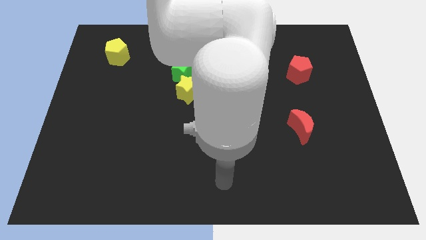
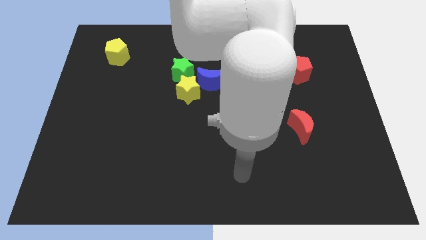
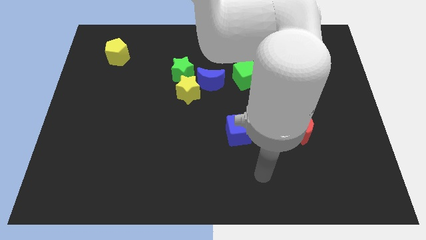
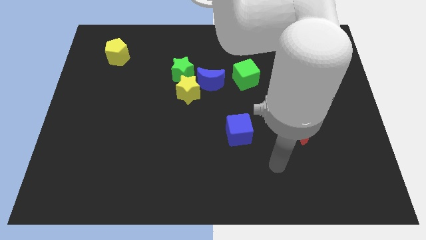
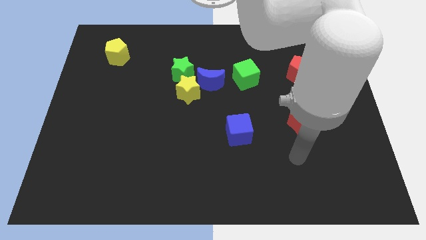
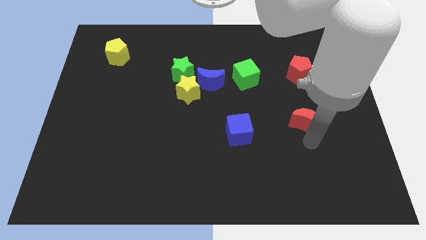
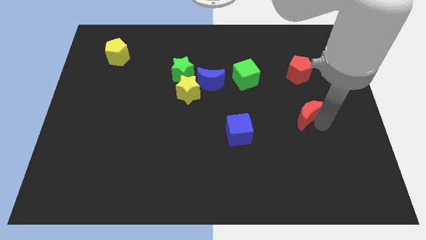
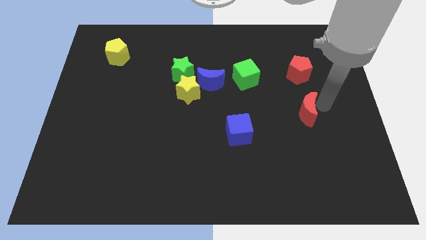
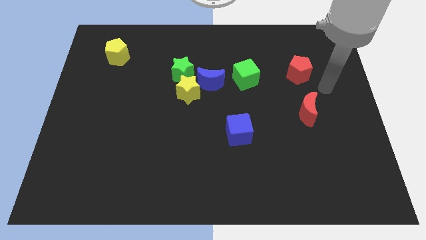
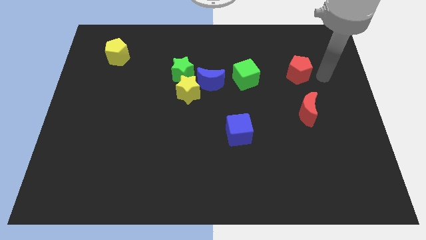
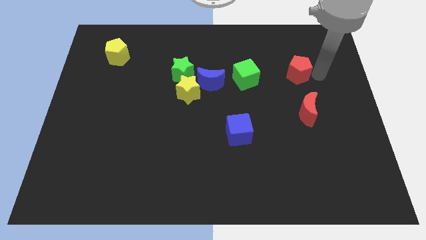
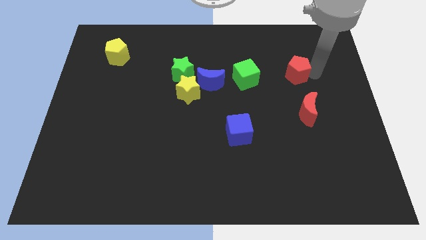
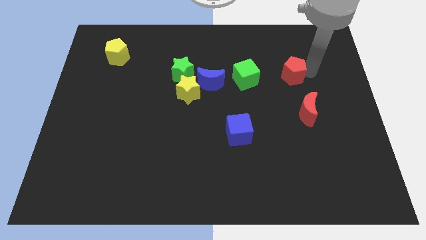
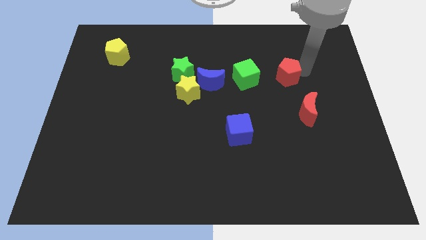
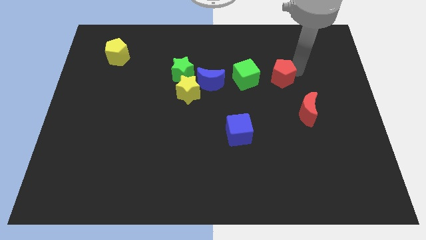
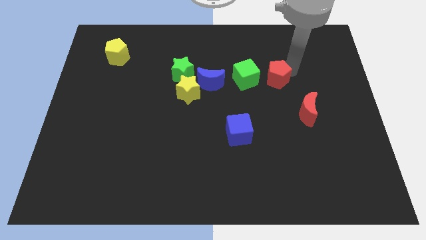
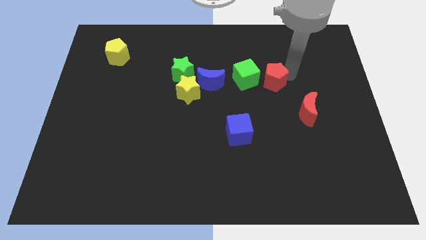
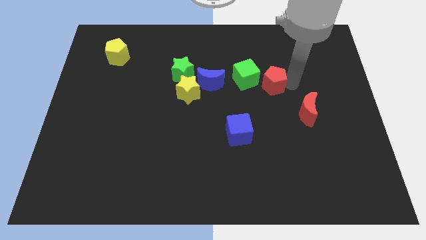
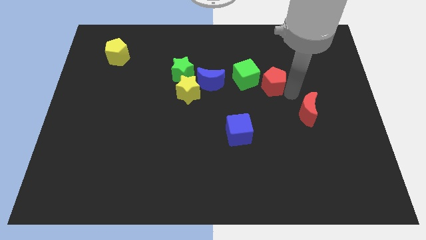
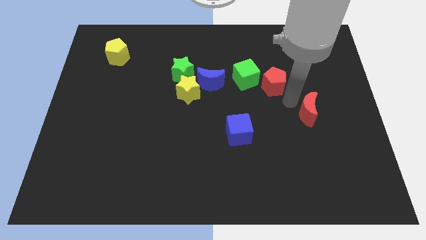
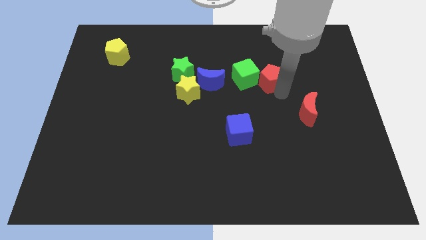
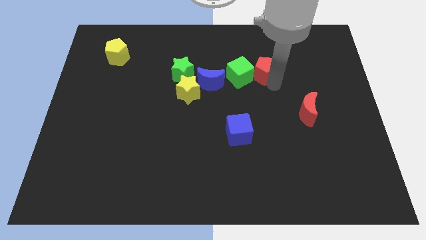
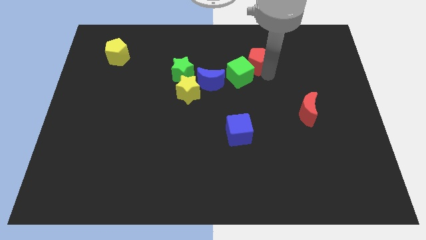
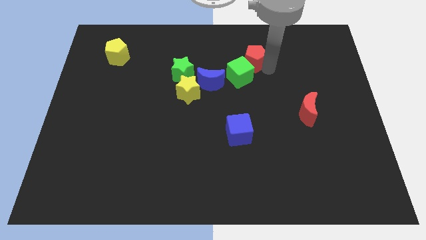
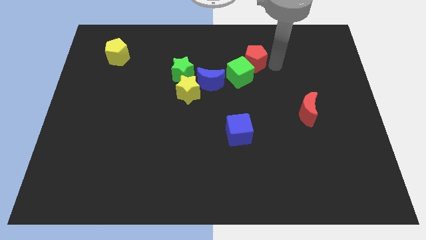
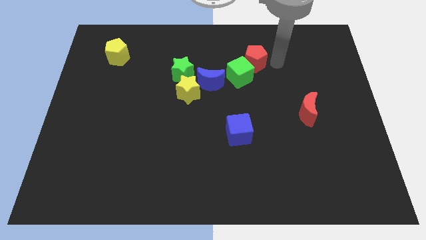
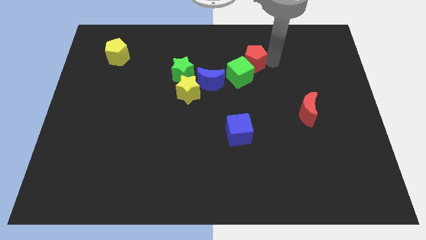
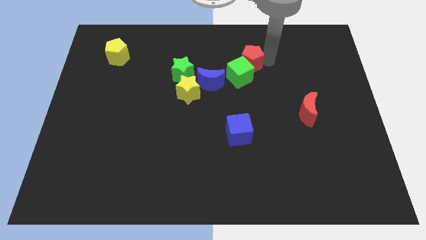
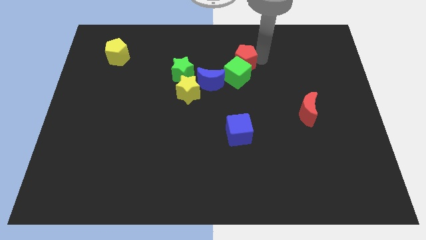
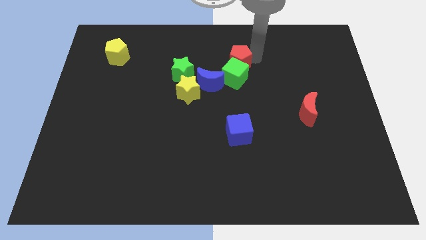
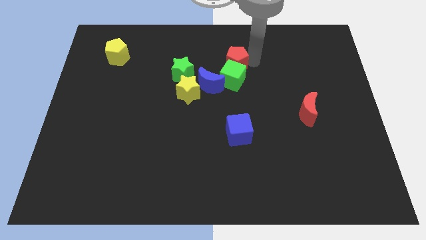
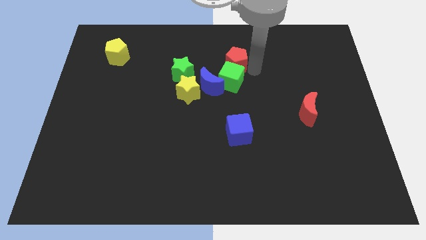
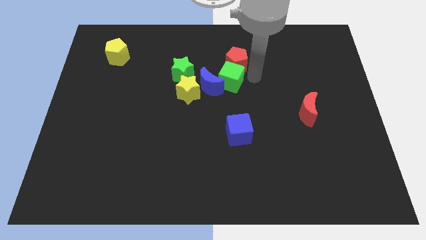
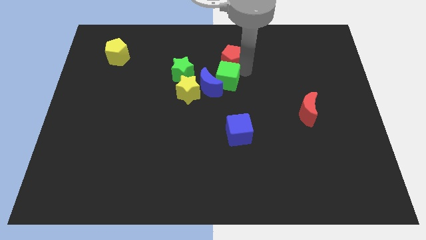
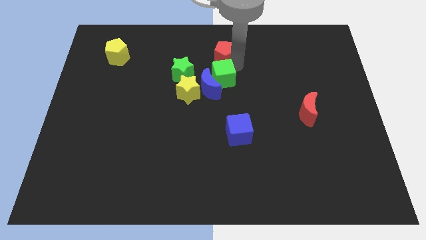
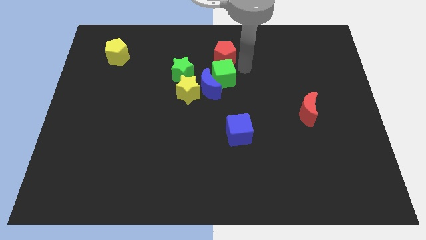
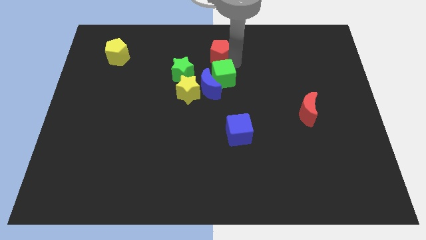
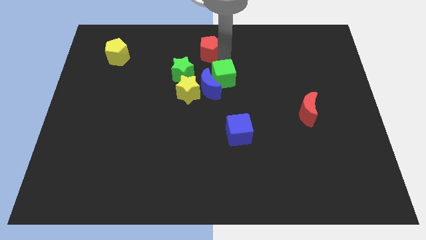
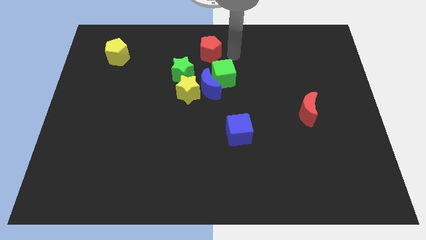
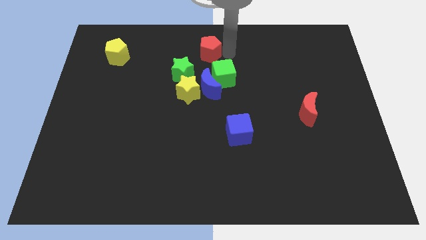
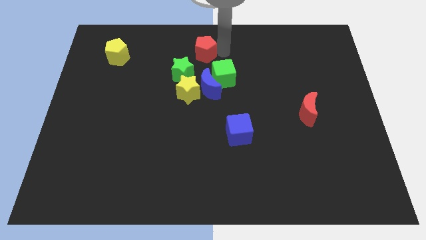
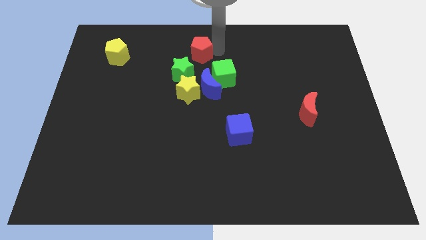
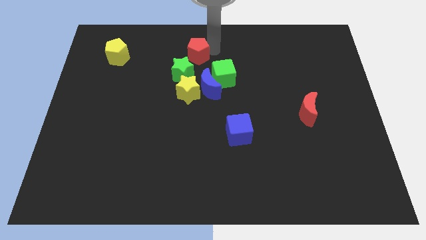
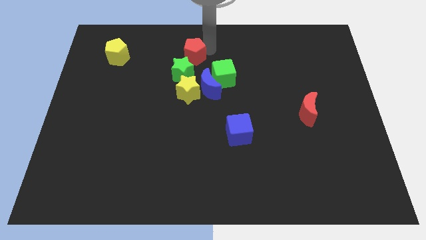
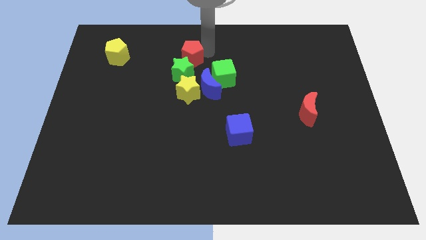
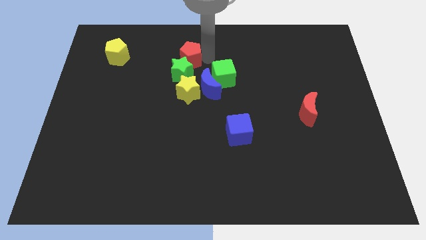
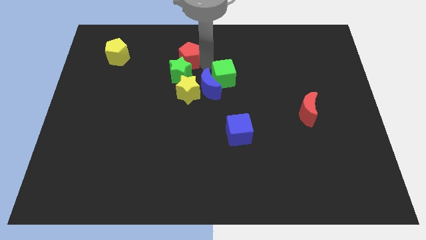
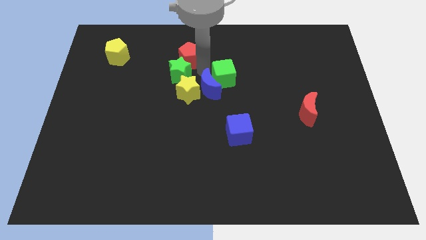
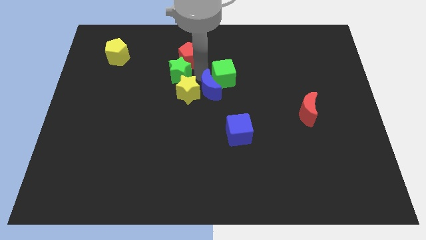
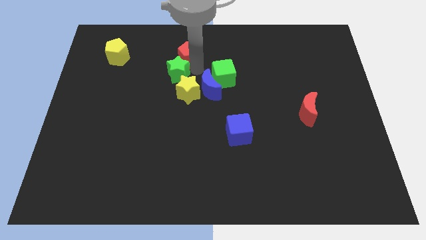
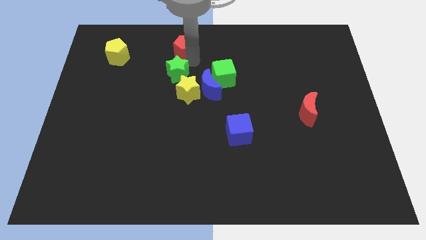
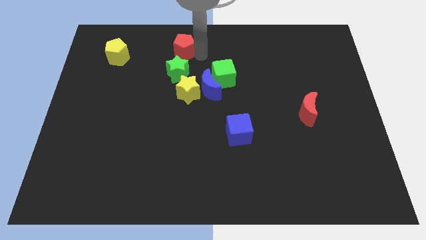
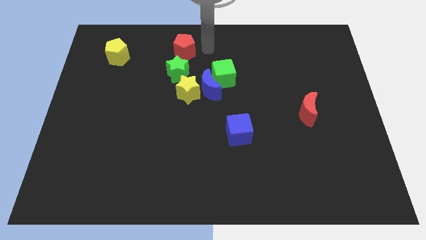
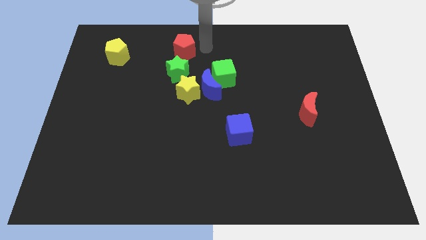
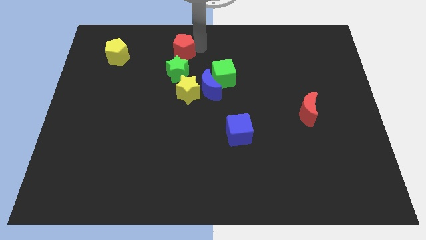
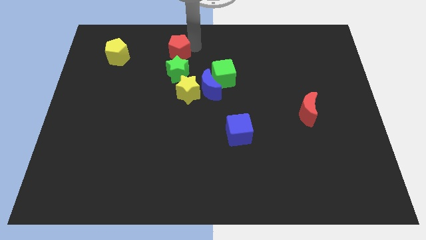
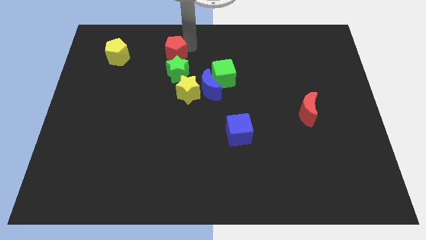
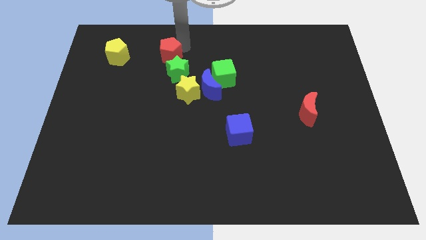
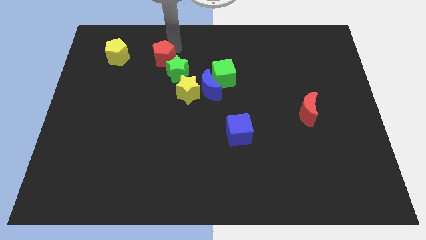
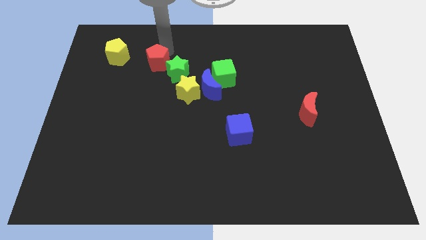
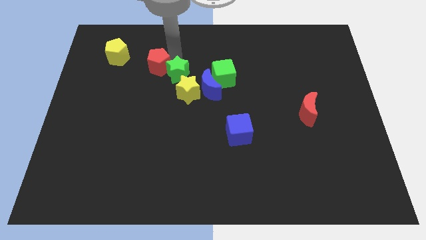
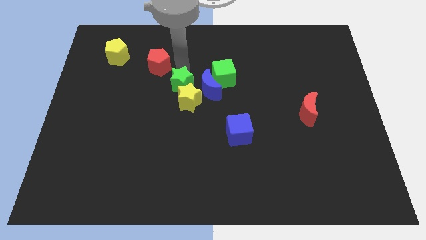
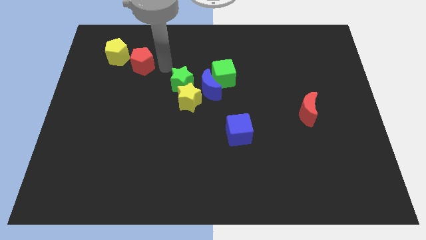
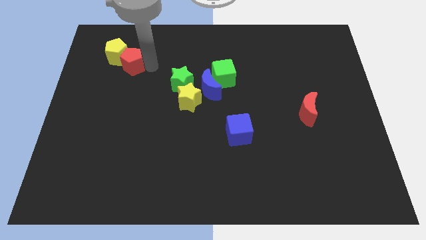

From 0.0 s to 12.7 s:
move the red pentagon to the yellow pentagon
